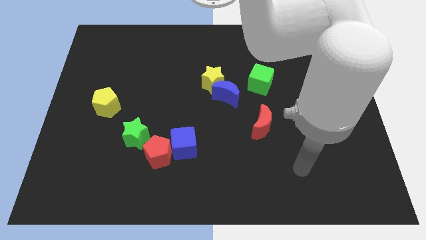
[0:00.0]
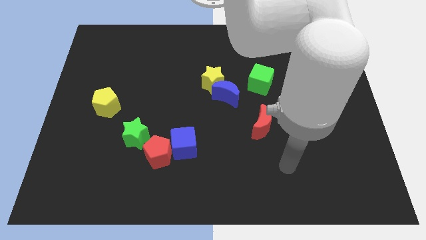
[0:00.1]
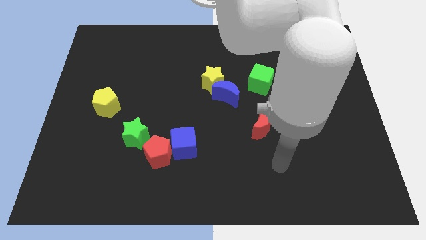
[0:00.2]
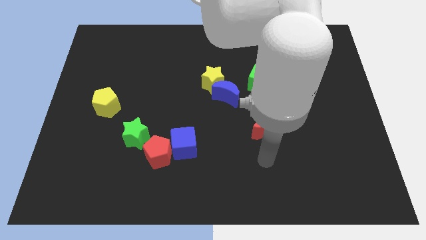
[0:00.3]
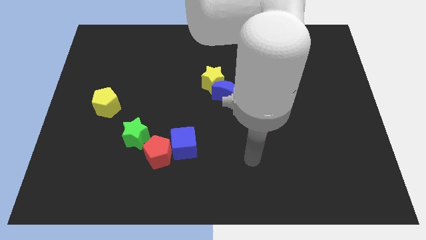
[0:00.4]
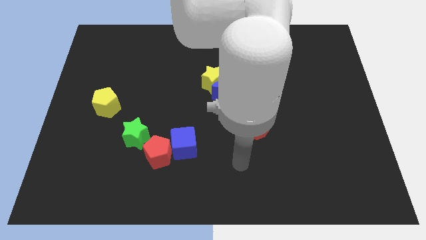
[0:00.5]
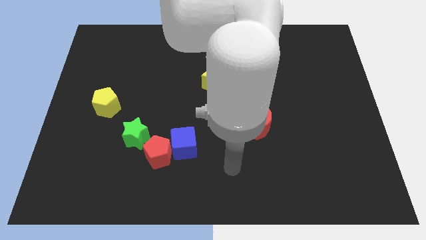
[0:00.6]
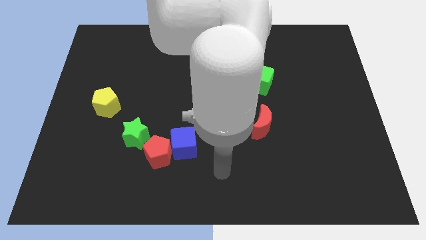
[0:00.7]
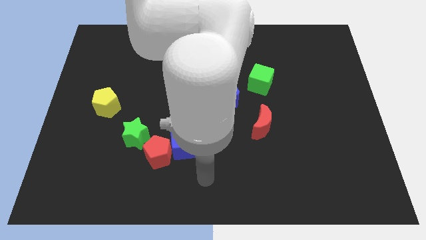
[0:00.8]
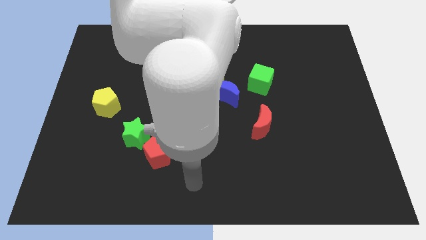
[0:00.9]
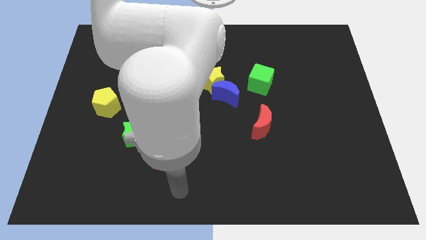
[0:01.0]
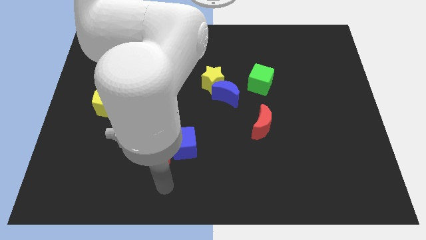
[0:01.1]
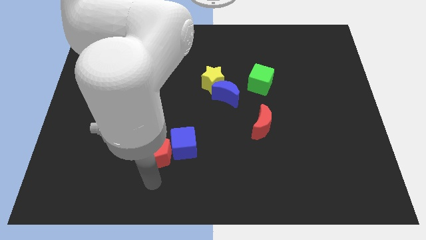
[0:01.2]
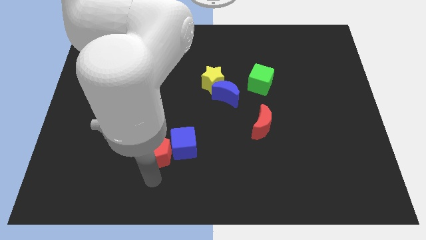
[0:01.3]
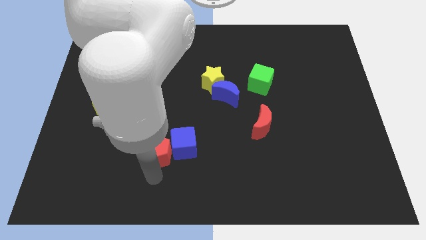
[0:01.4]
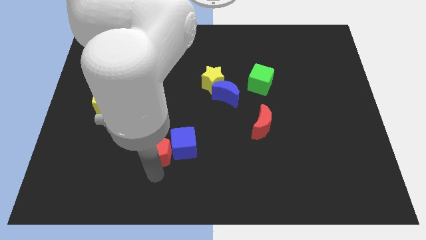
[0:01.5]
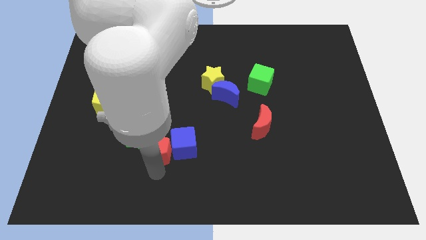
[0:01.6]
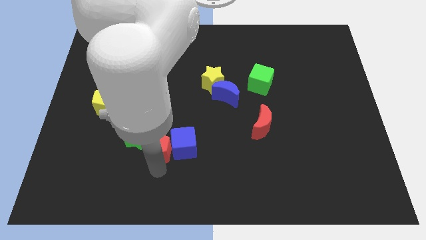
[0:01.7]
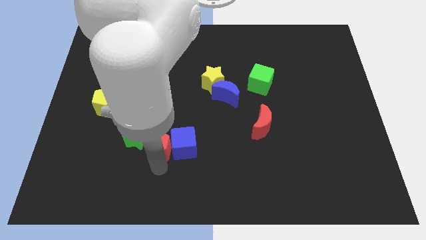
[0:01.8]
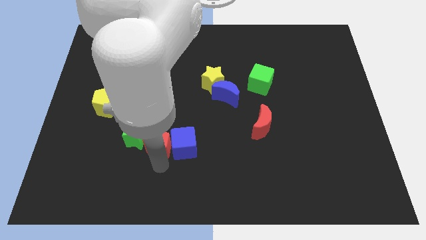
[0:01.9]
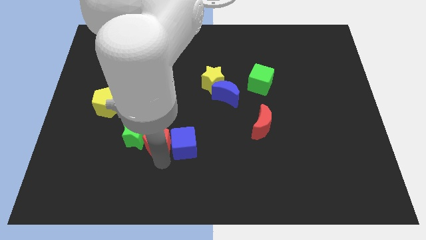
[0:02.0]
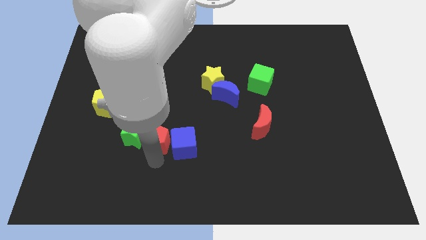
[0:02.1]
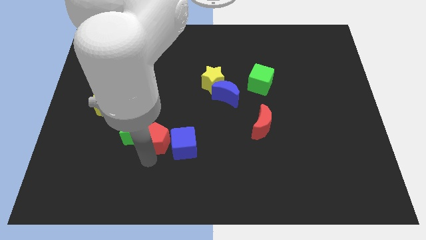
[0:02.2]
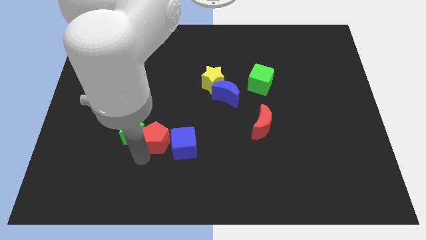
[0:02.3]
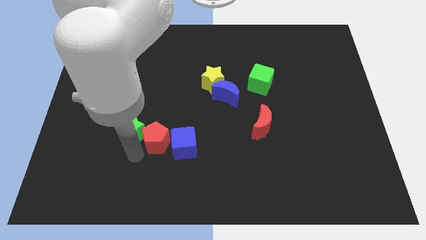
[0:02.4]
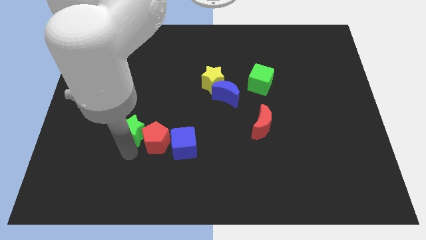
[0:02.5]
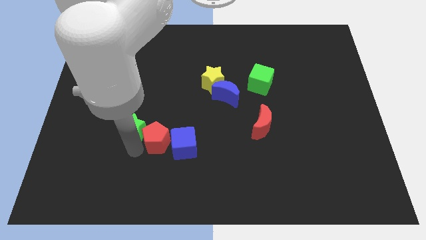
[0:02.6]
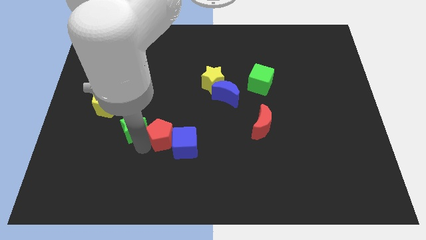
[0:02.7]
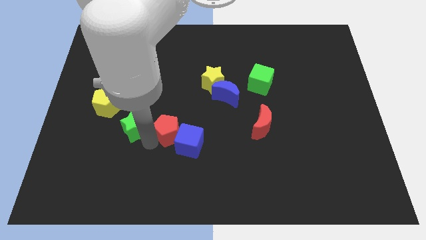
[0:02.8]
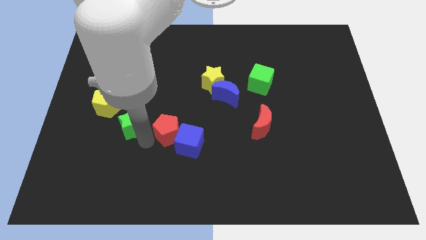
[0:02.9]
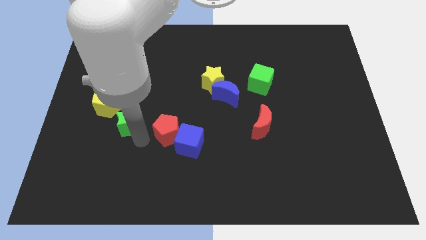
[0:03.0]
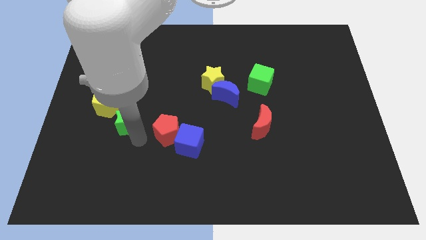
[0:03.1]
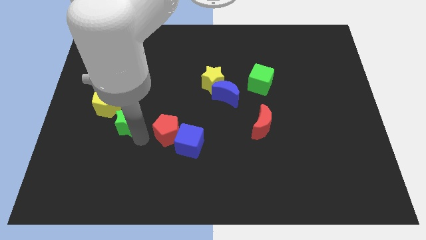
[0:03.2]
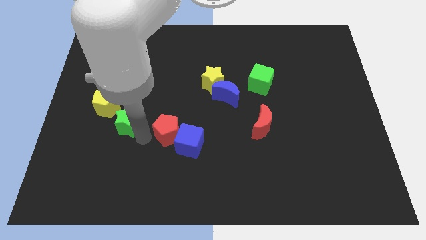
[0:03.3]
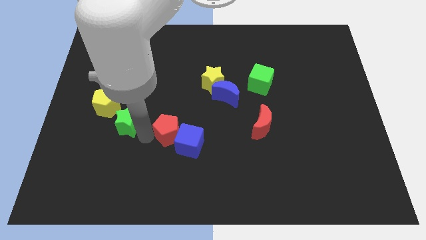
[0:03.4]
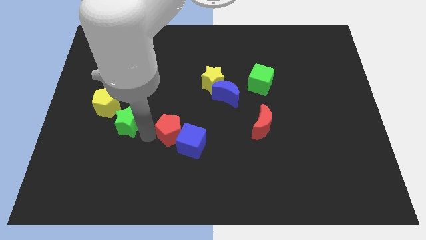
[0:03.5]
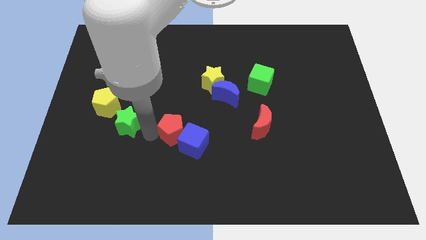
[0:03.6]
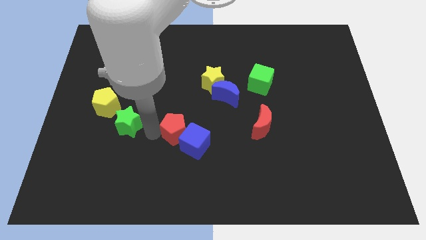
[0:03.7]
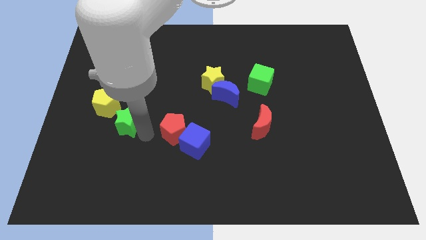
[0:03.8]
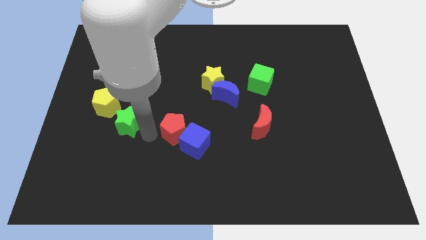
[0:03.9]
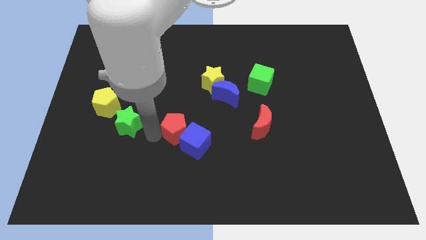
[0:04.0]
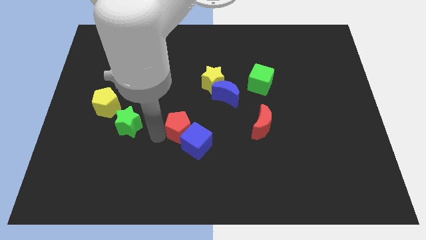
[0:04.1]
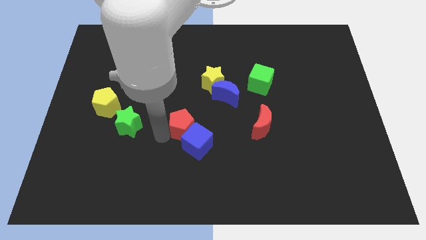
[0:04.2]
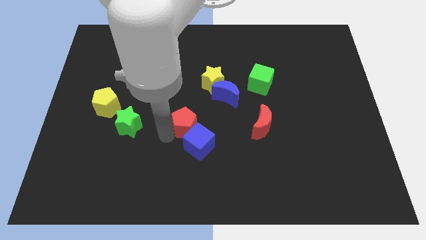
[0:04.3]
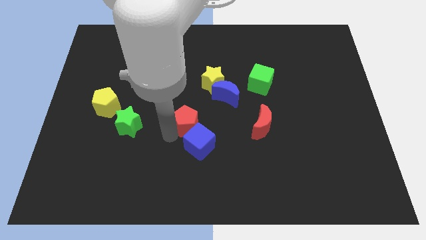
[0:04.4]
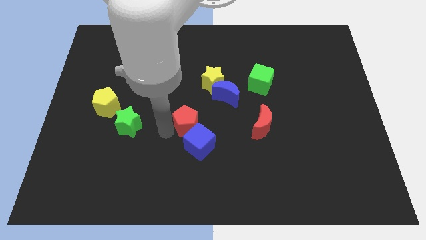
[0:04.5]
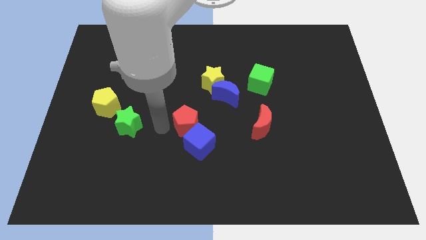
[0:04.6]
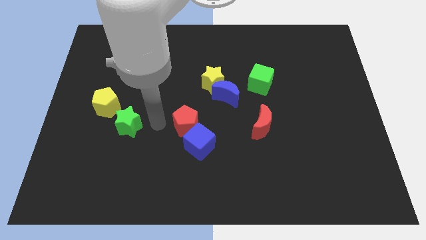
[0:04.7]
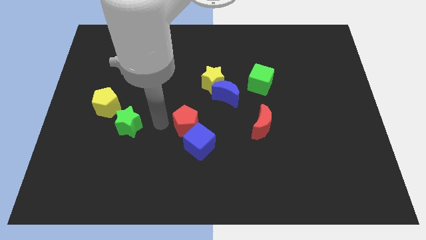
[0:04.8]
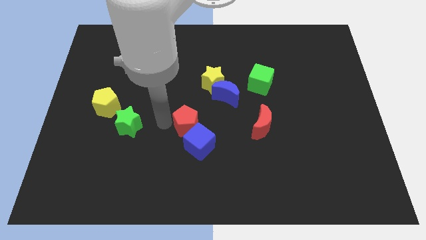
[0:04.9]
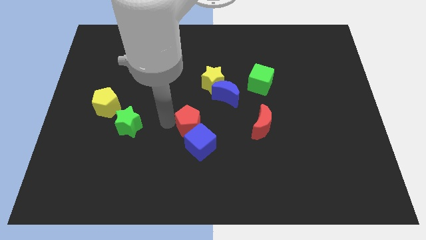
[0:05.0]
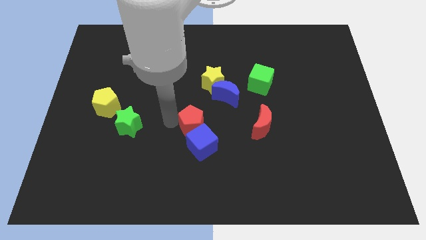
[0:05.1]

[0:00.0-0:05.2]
move the red pentagon to the left side of the red moon

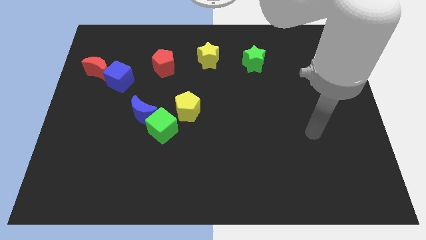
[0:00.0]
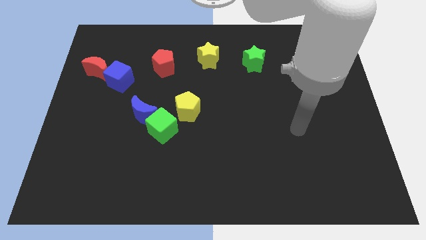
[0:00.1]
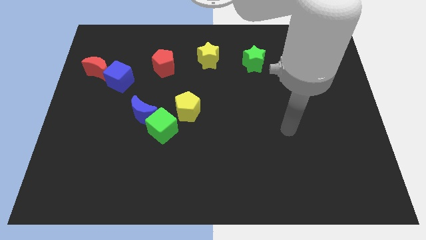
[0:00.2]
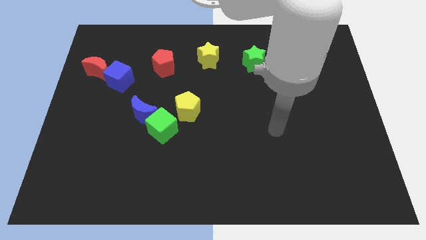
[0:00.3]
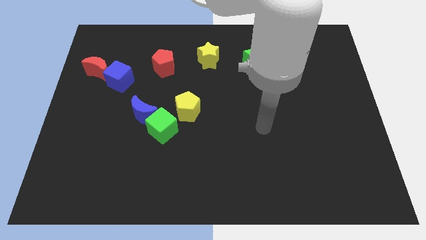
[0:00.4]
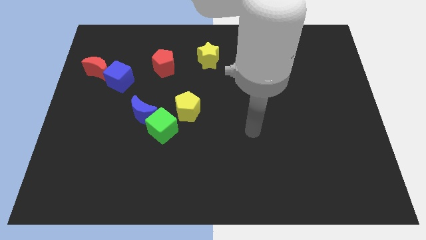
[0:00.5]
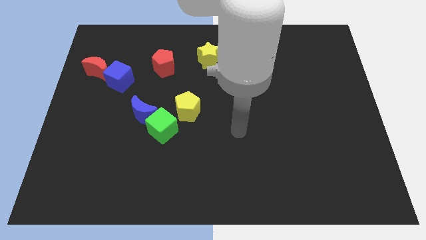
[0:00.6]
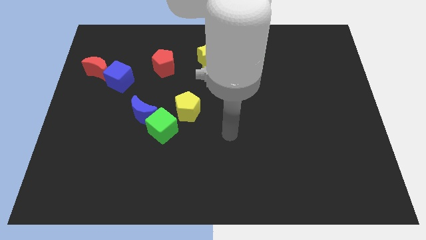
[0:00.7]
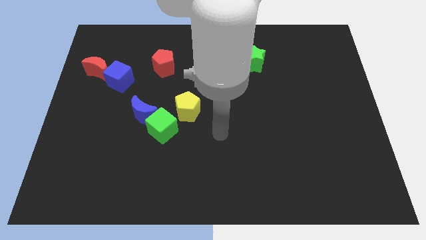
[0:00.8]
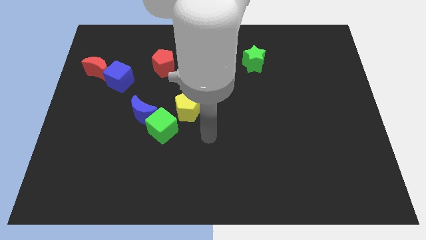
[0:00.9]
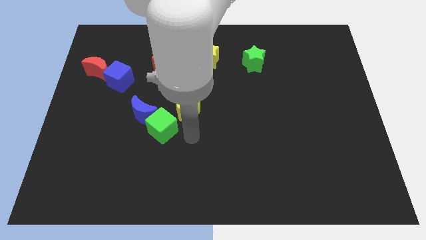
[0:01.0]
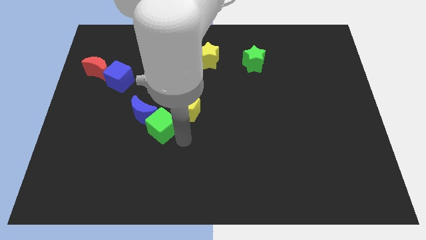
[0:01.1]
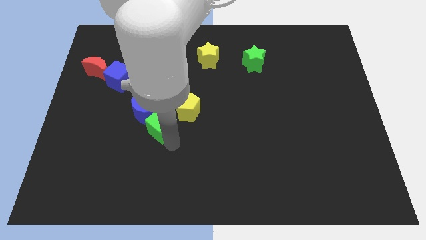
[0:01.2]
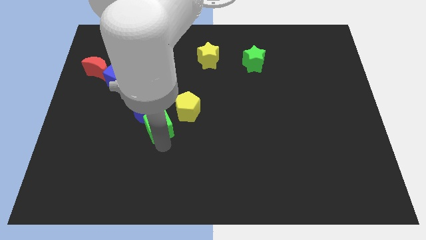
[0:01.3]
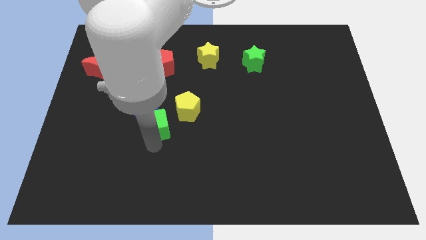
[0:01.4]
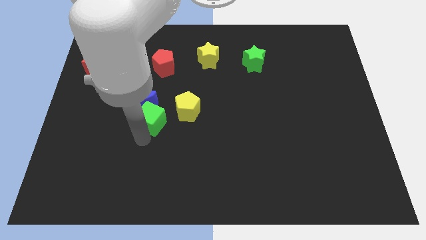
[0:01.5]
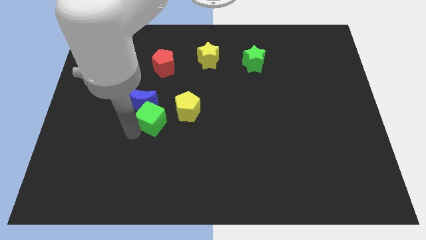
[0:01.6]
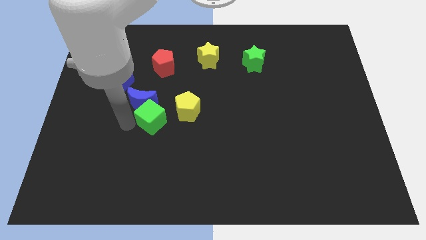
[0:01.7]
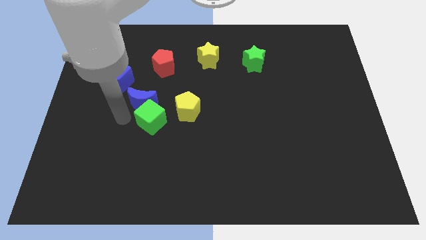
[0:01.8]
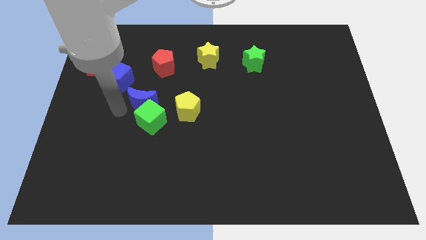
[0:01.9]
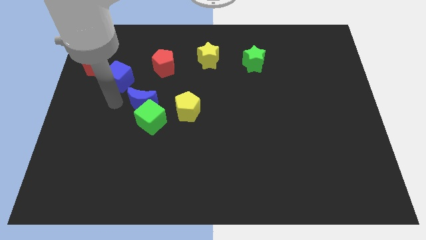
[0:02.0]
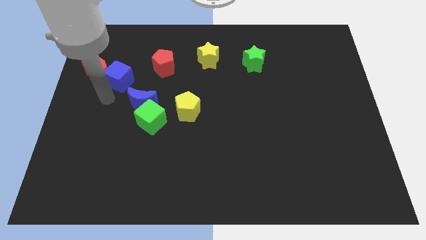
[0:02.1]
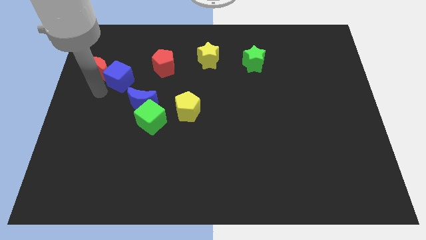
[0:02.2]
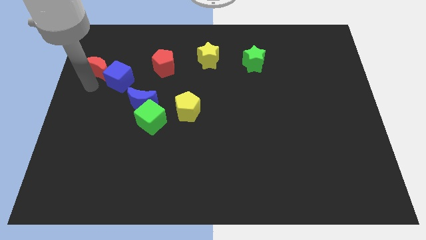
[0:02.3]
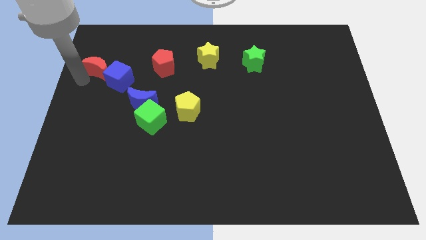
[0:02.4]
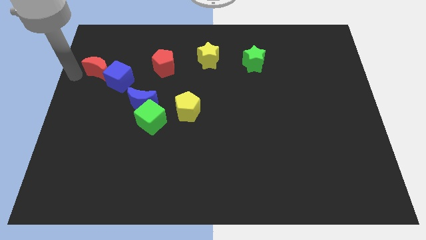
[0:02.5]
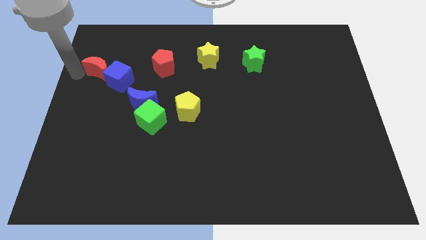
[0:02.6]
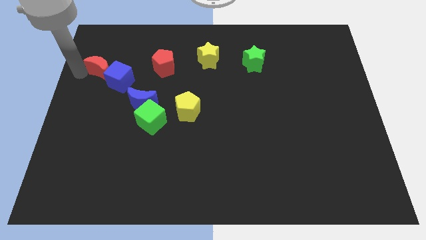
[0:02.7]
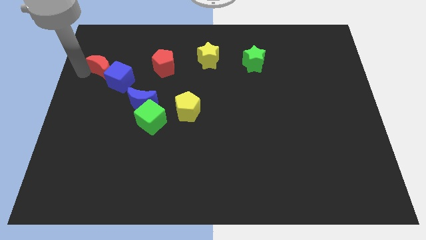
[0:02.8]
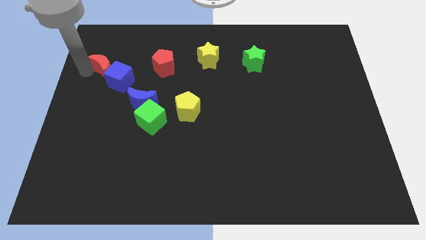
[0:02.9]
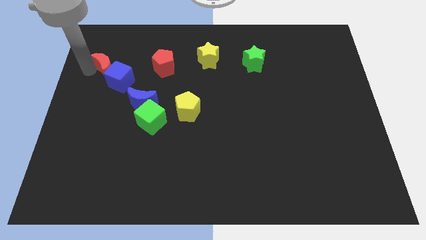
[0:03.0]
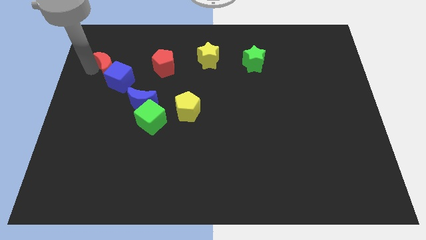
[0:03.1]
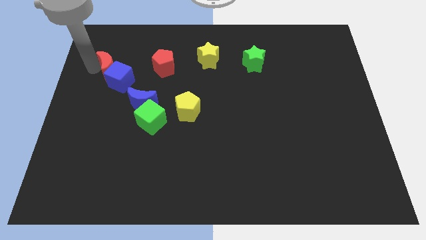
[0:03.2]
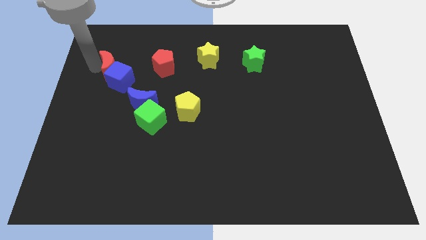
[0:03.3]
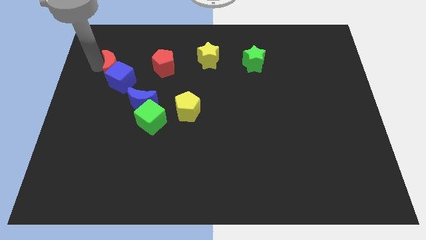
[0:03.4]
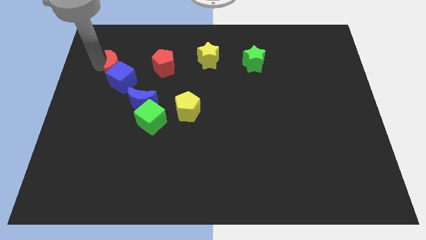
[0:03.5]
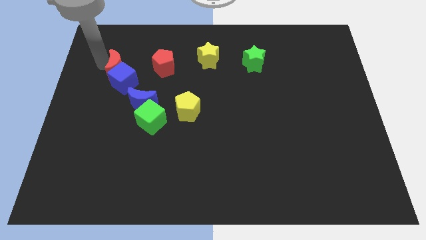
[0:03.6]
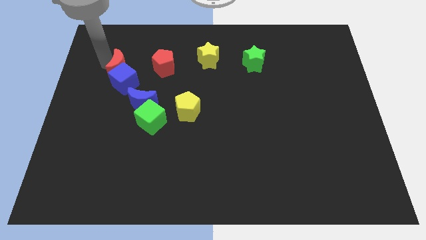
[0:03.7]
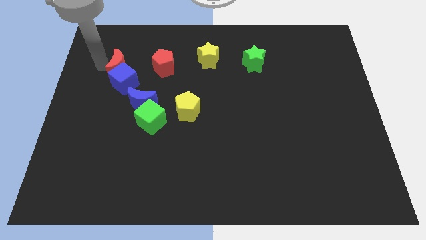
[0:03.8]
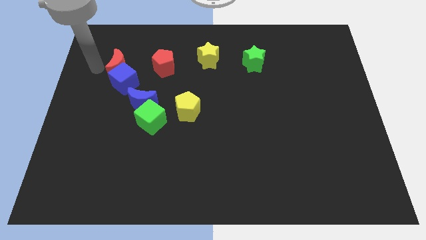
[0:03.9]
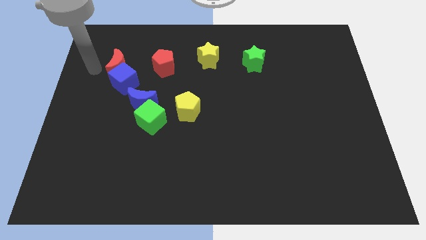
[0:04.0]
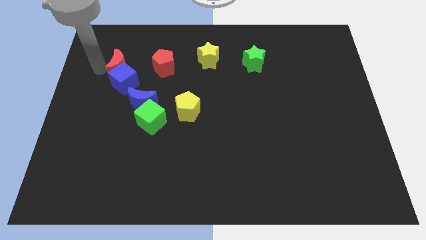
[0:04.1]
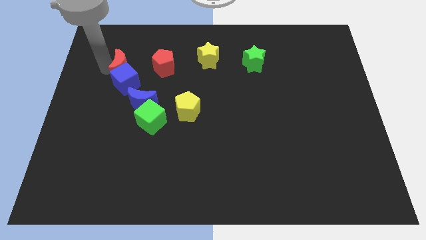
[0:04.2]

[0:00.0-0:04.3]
push the red moon to the top right side of the blue cube
